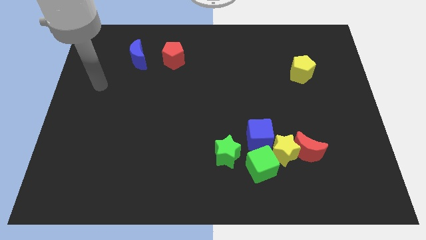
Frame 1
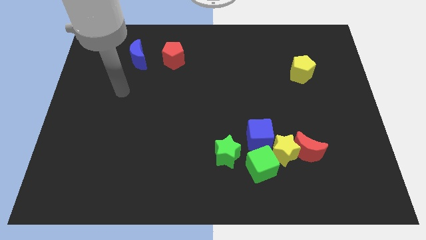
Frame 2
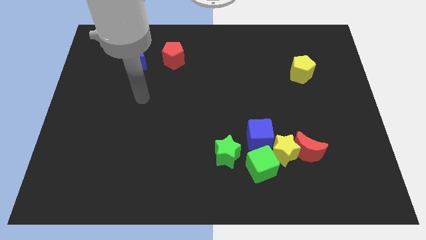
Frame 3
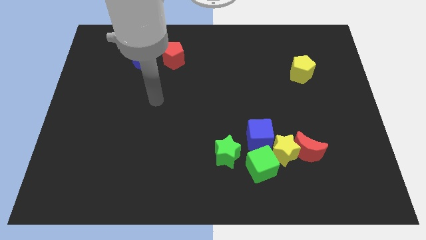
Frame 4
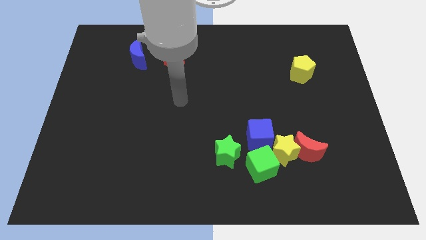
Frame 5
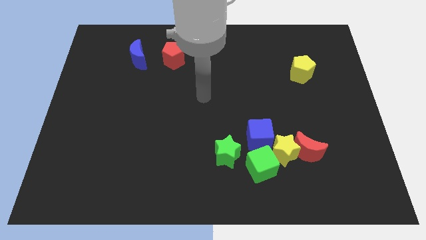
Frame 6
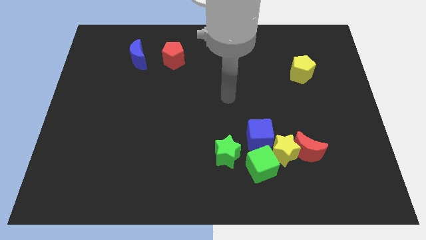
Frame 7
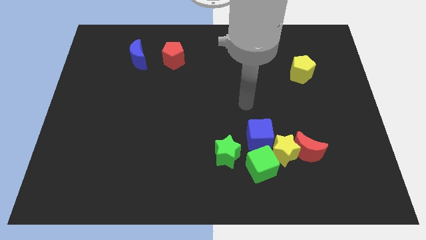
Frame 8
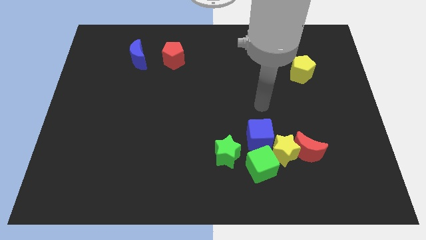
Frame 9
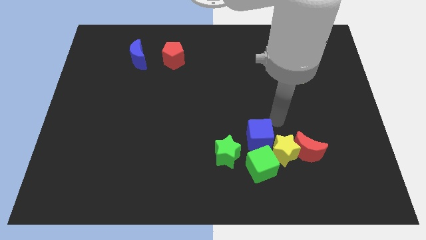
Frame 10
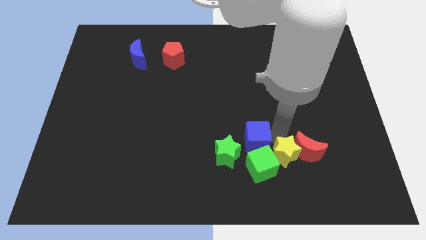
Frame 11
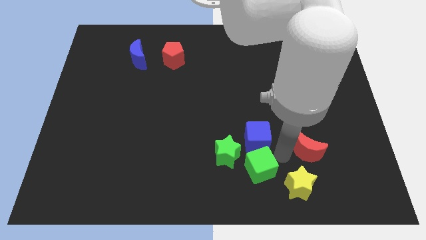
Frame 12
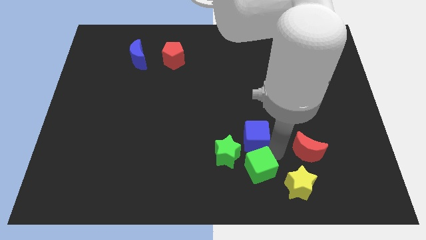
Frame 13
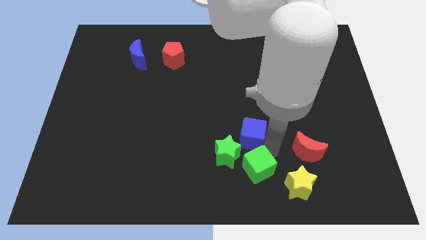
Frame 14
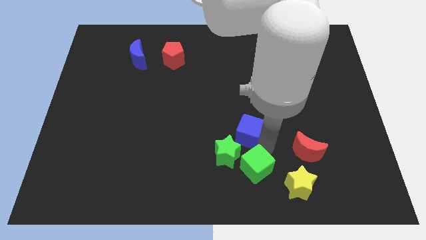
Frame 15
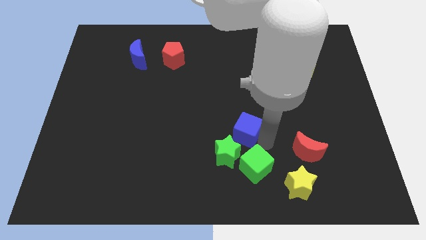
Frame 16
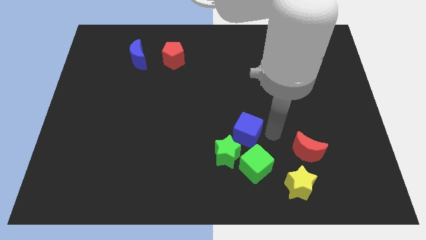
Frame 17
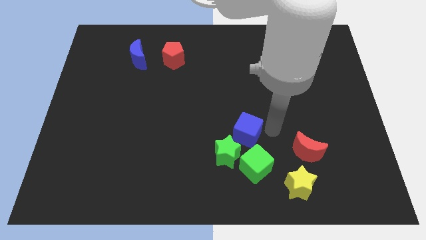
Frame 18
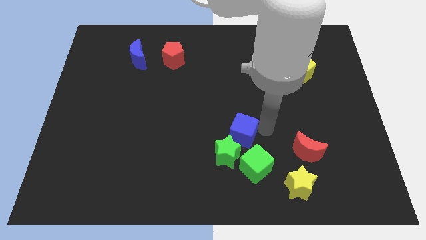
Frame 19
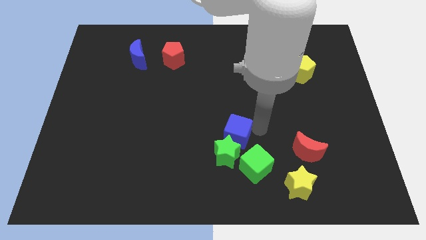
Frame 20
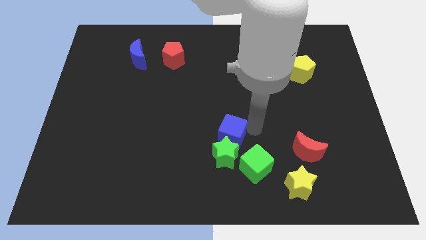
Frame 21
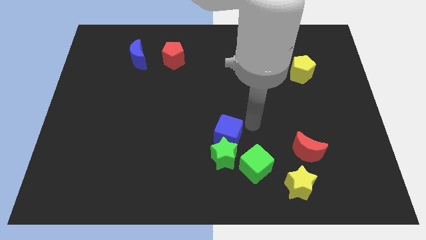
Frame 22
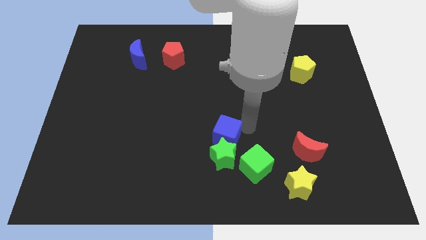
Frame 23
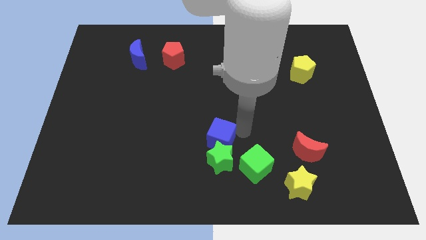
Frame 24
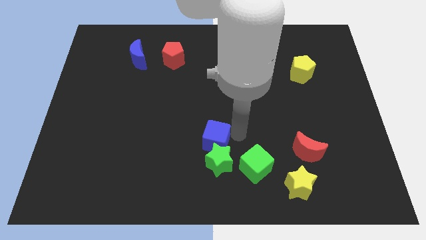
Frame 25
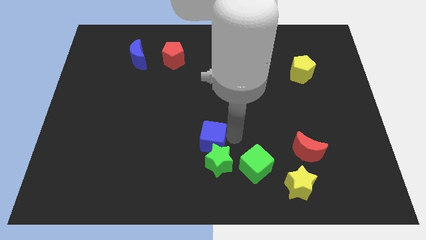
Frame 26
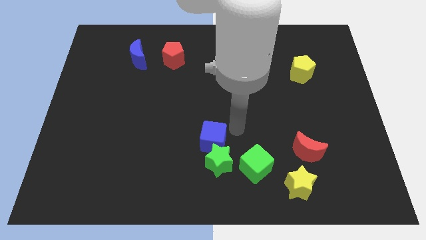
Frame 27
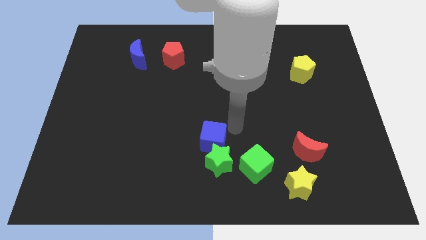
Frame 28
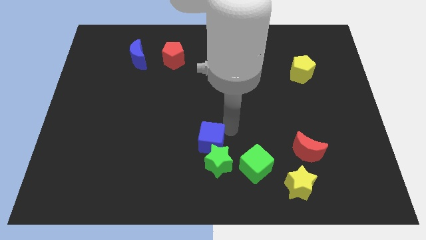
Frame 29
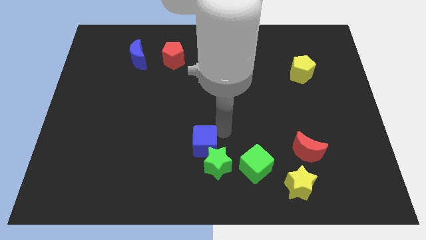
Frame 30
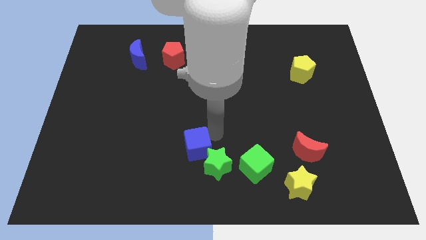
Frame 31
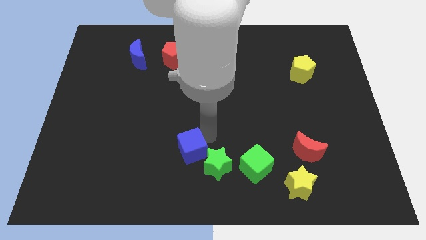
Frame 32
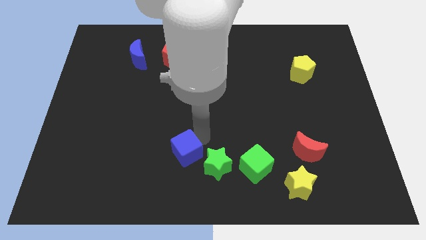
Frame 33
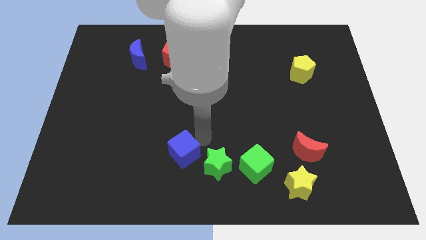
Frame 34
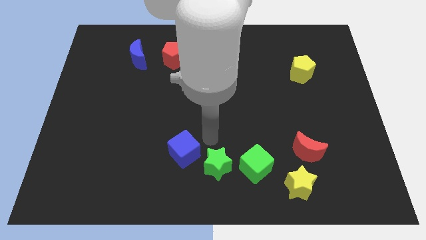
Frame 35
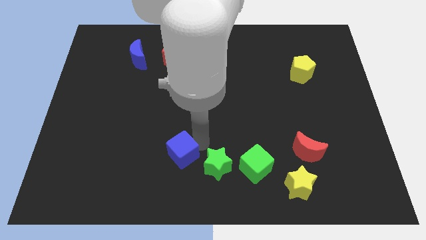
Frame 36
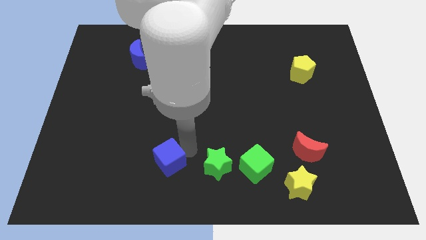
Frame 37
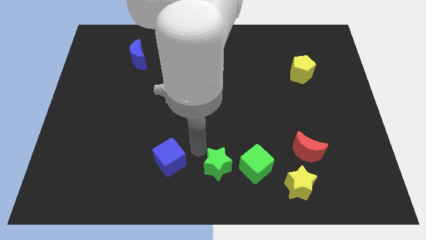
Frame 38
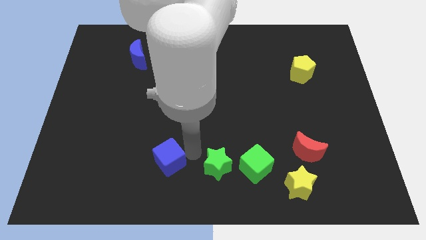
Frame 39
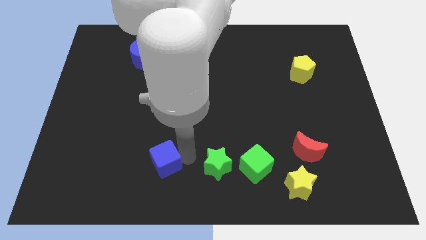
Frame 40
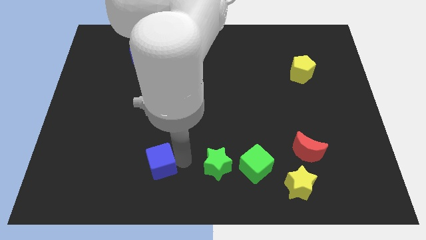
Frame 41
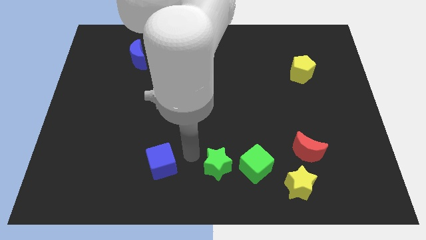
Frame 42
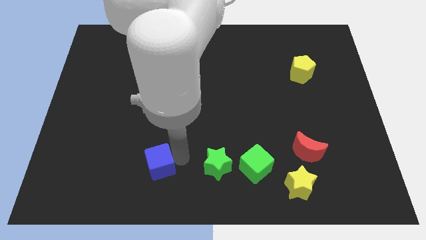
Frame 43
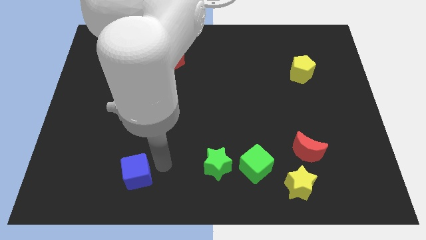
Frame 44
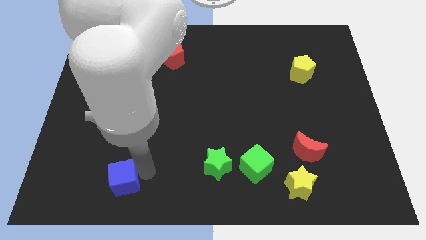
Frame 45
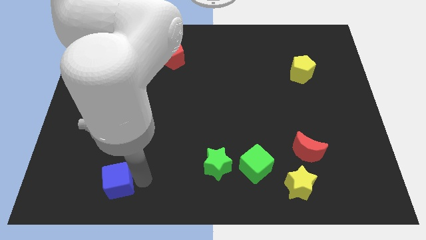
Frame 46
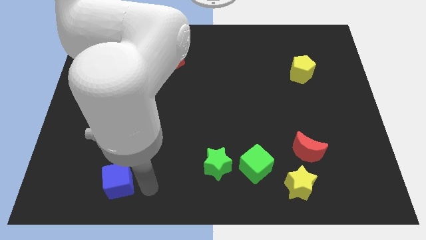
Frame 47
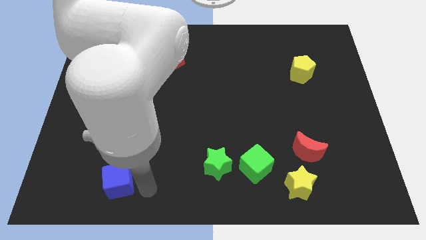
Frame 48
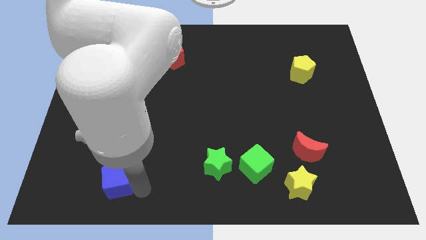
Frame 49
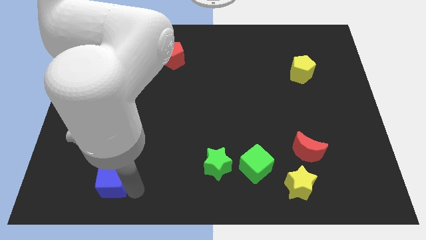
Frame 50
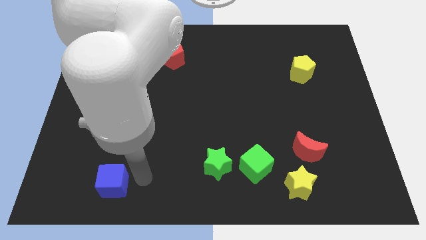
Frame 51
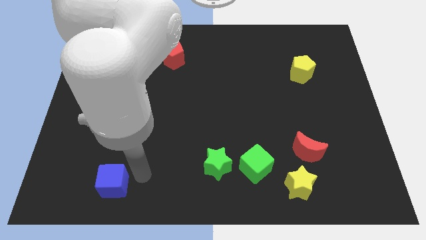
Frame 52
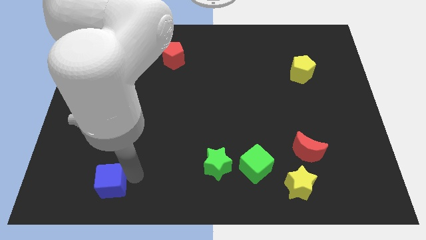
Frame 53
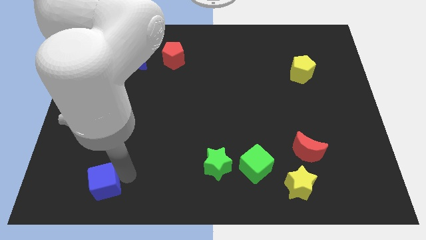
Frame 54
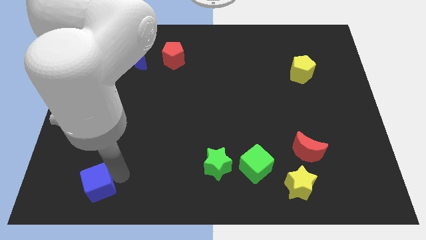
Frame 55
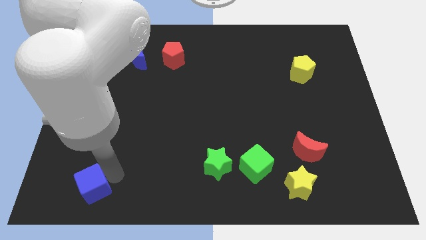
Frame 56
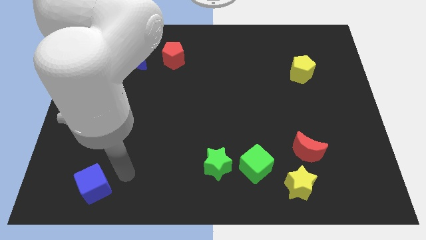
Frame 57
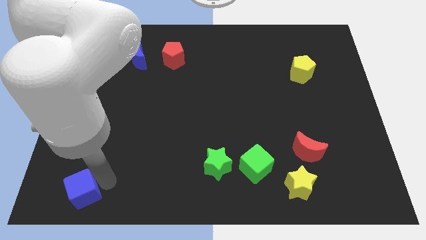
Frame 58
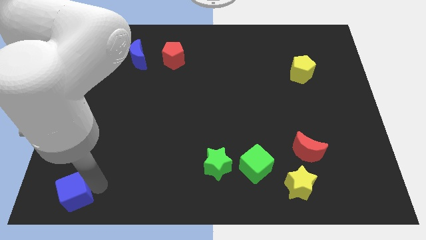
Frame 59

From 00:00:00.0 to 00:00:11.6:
push the blue cube to the bottom left

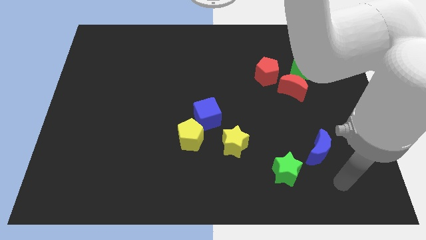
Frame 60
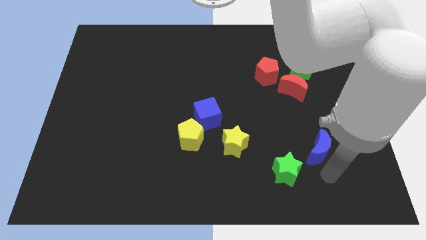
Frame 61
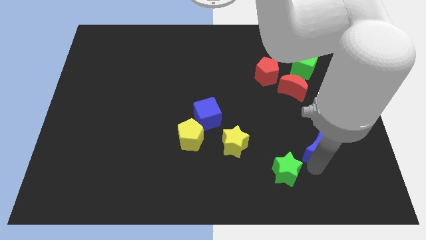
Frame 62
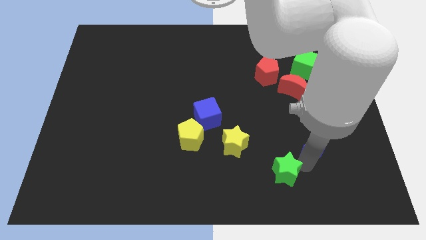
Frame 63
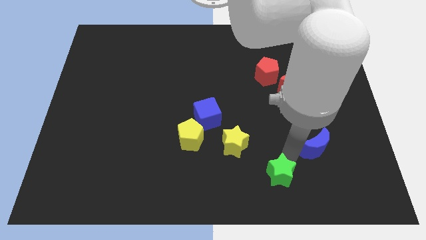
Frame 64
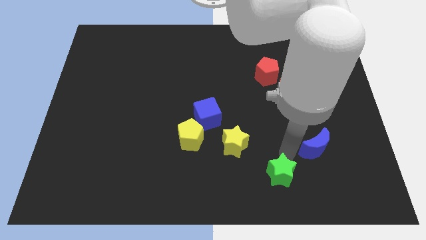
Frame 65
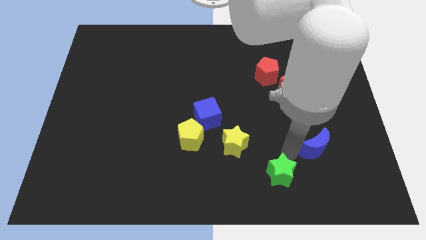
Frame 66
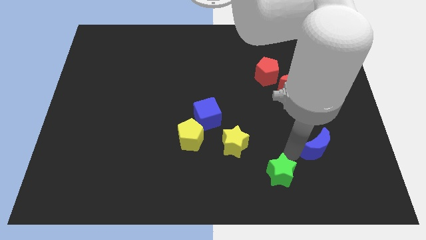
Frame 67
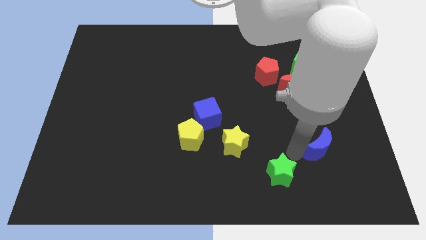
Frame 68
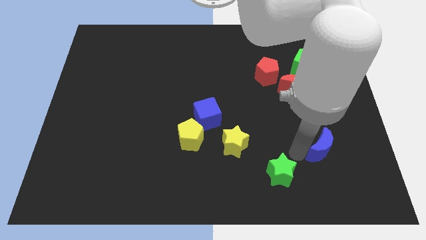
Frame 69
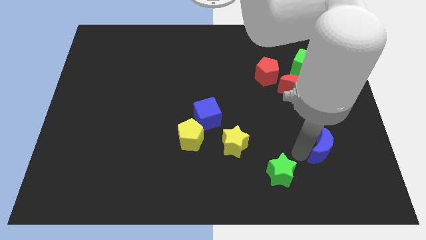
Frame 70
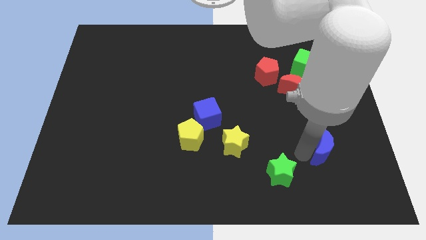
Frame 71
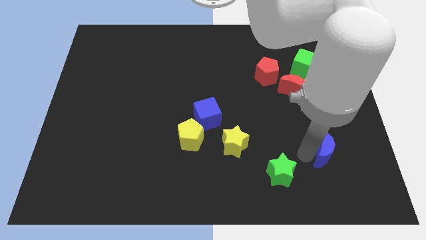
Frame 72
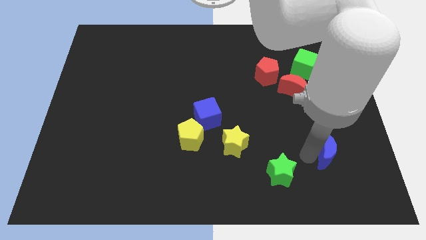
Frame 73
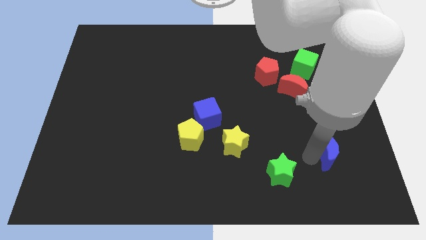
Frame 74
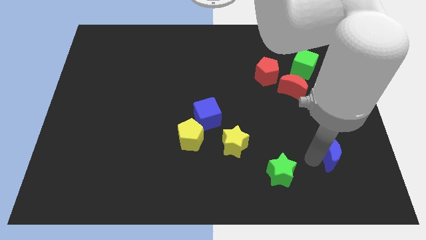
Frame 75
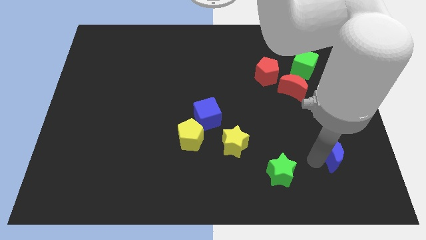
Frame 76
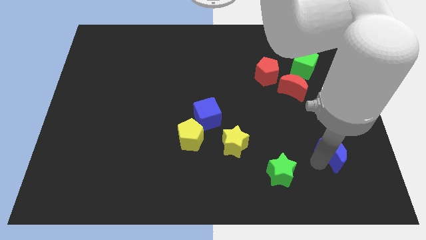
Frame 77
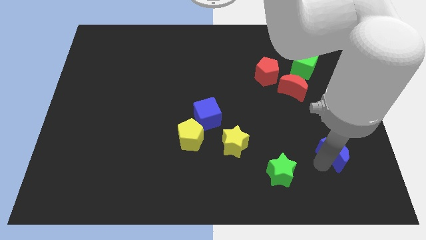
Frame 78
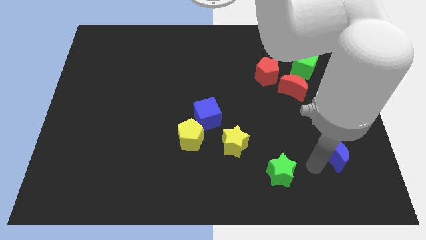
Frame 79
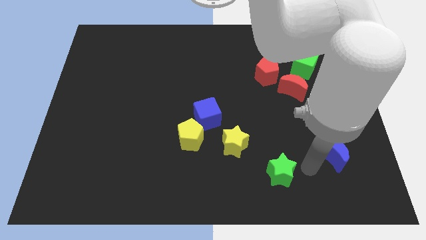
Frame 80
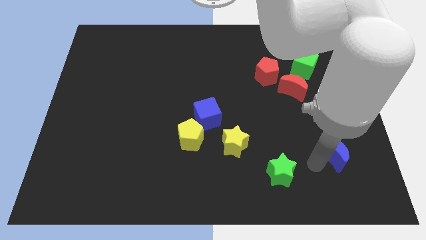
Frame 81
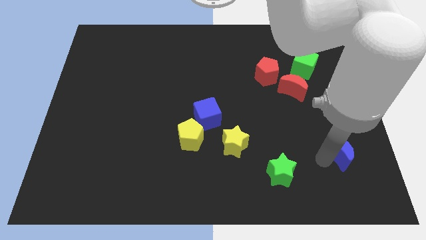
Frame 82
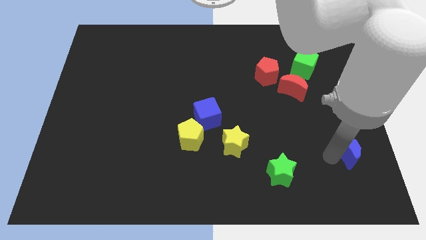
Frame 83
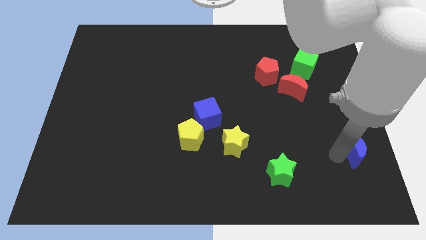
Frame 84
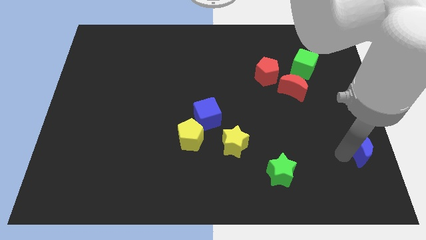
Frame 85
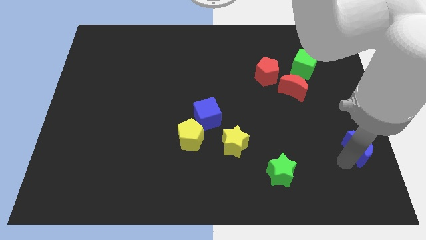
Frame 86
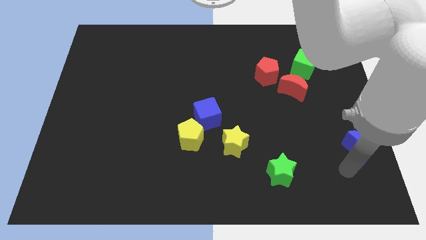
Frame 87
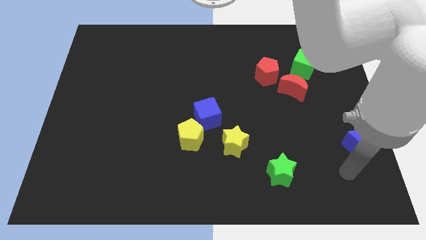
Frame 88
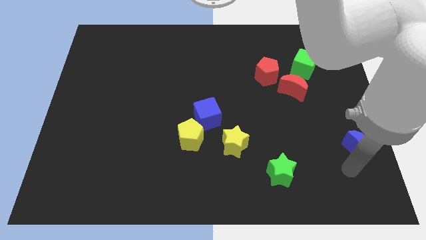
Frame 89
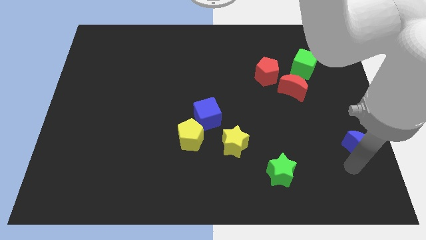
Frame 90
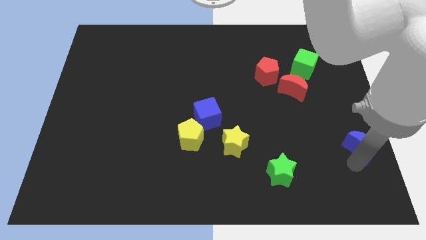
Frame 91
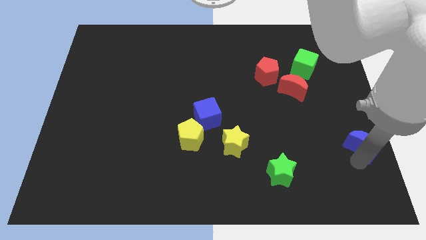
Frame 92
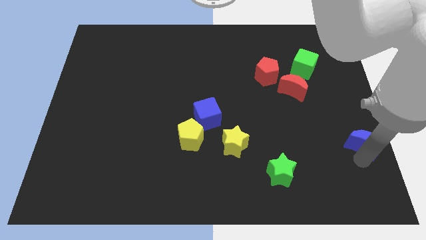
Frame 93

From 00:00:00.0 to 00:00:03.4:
slide the blue moon to the center right
